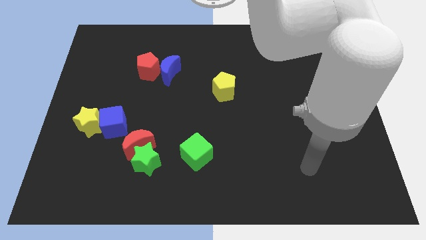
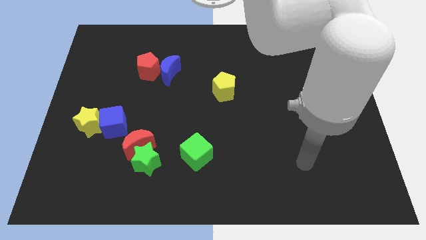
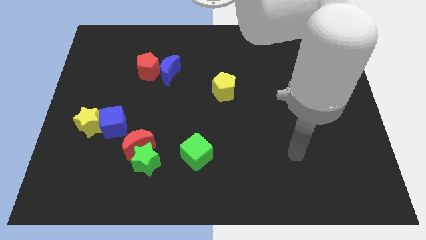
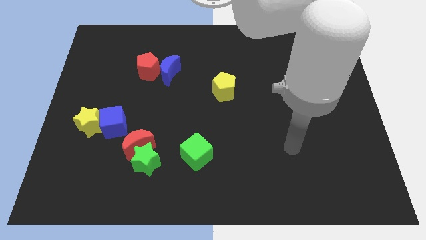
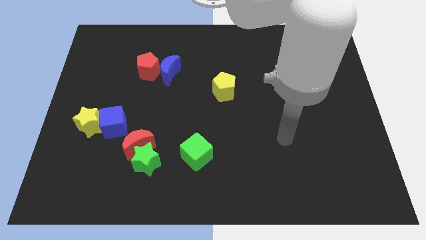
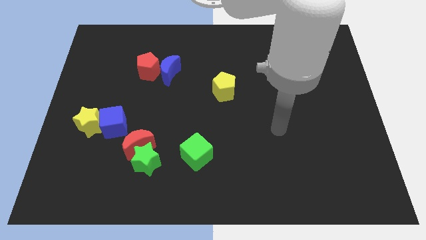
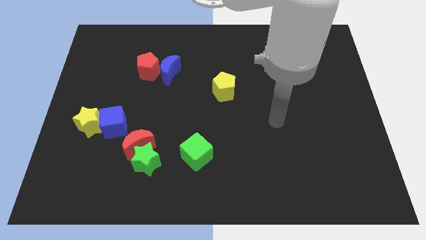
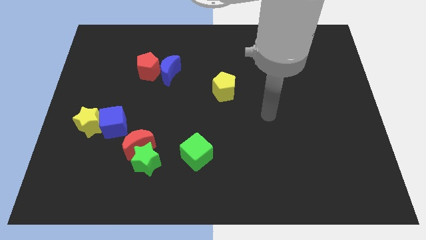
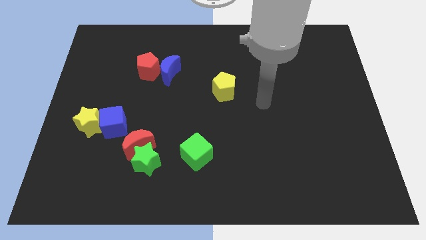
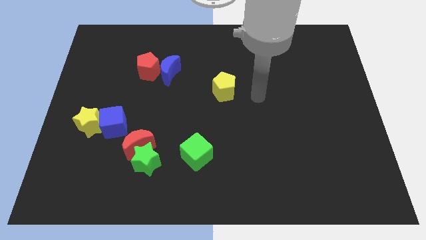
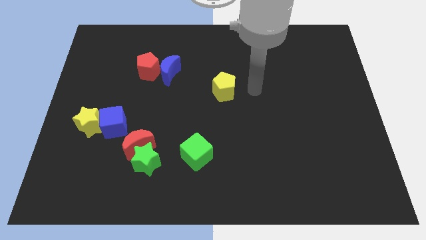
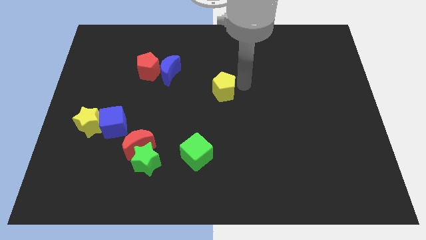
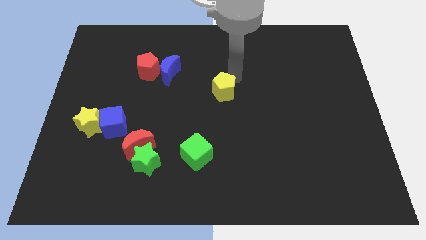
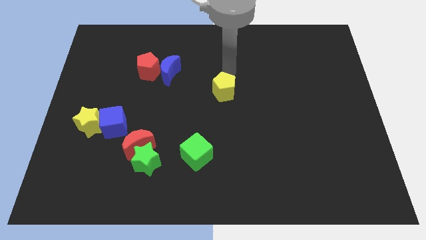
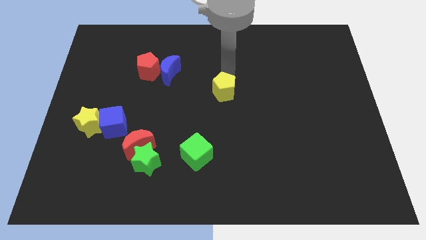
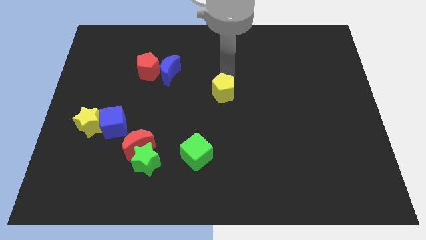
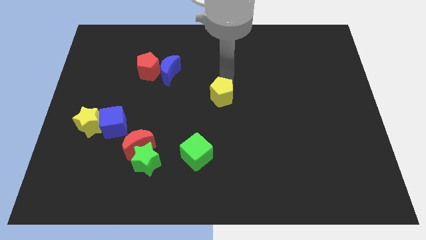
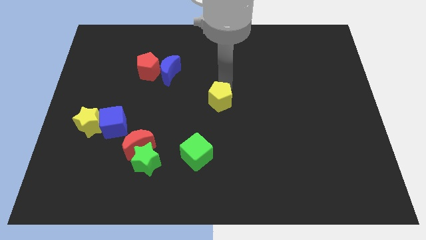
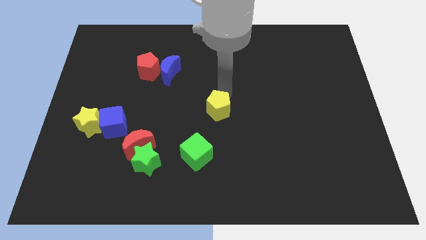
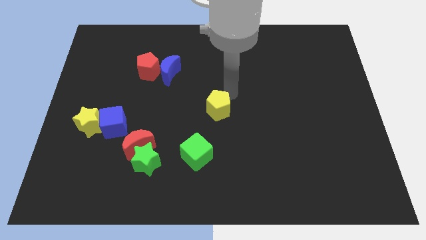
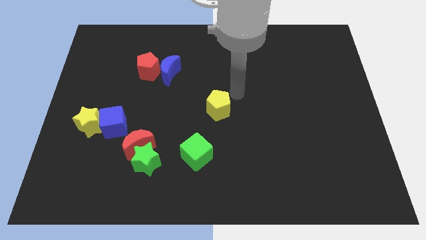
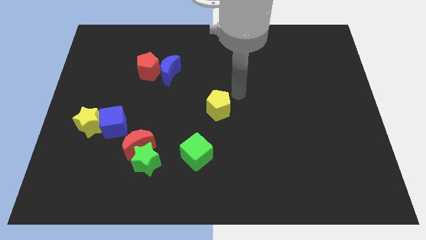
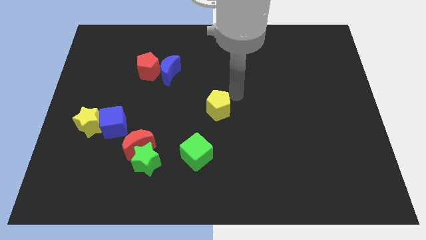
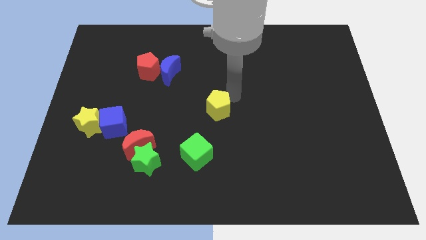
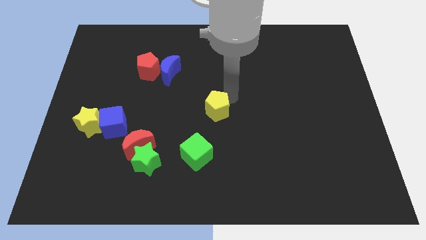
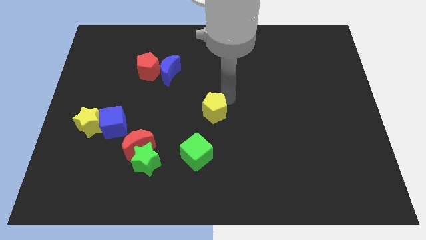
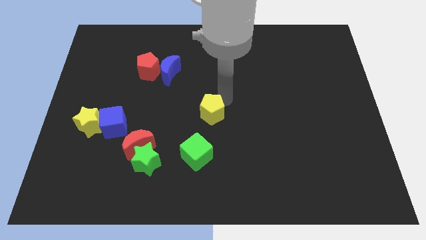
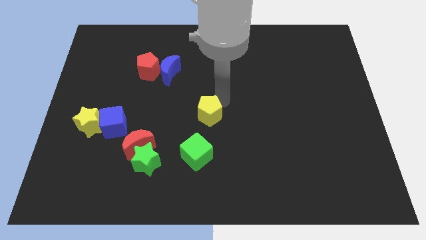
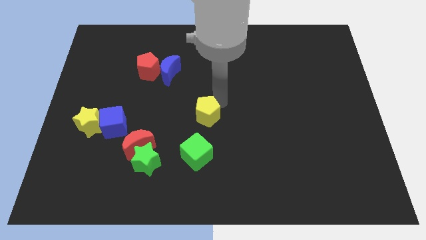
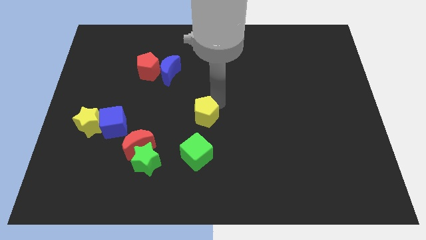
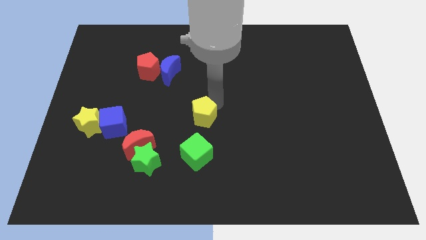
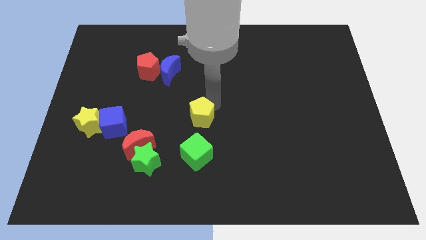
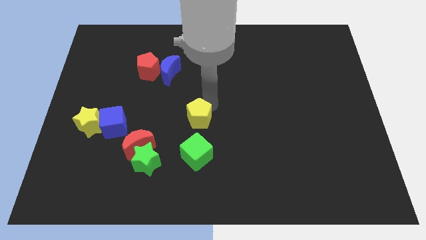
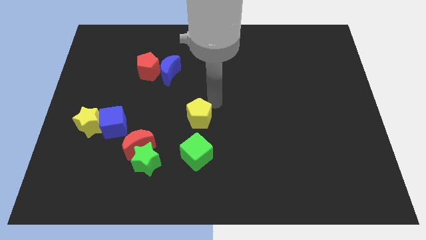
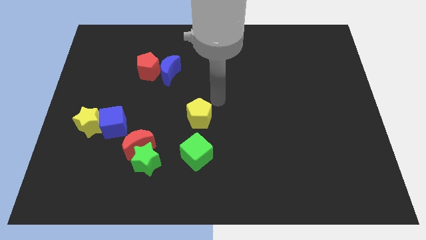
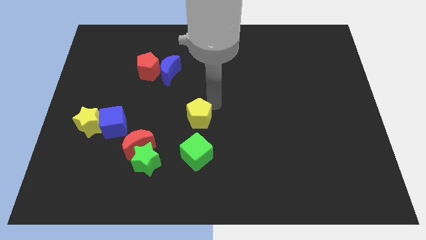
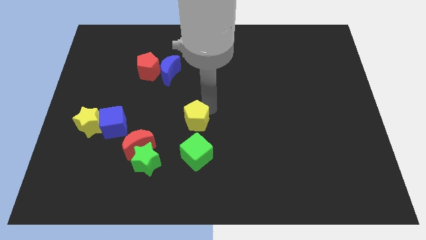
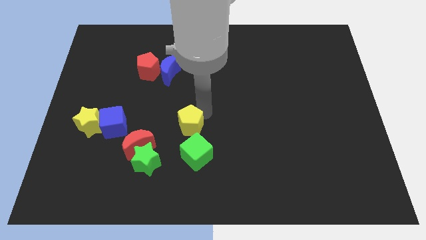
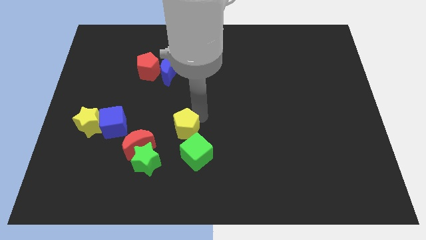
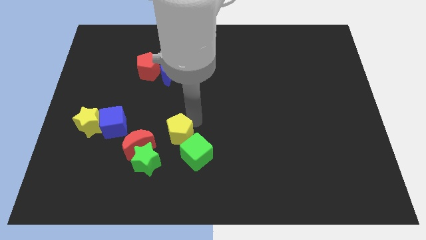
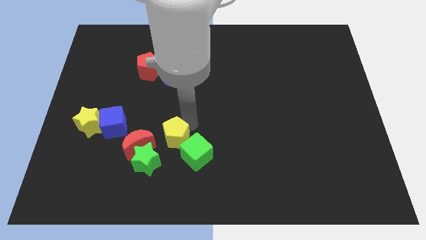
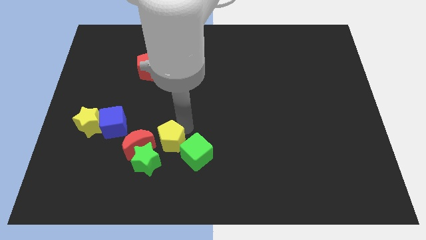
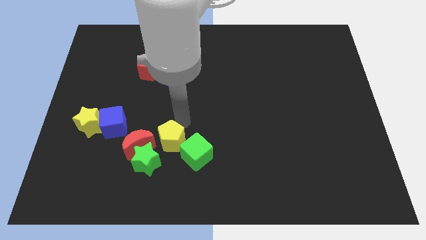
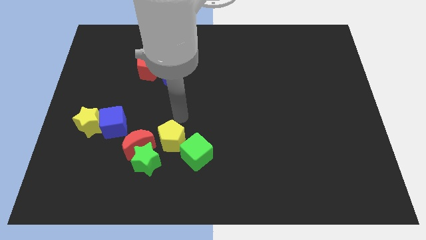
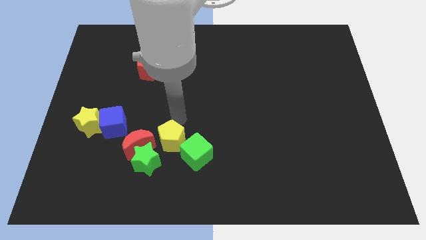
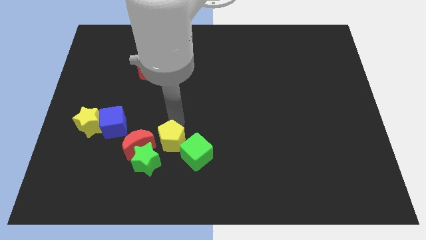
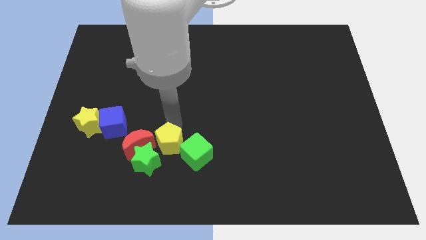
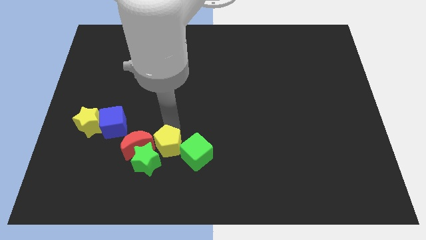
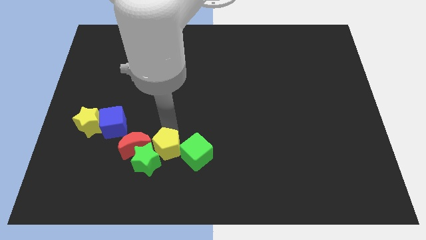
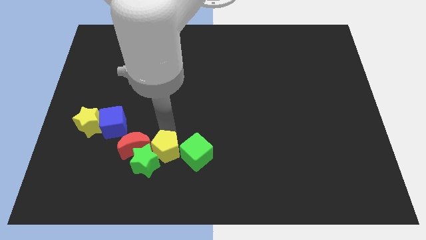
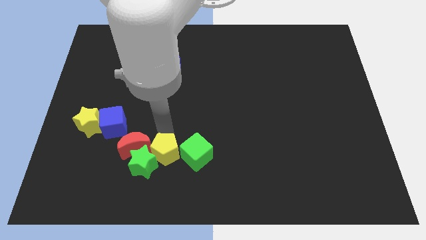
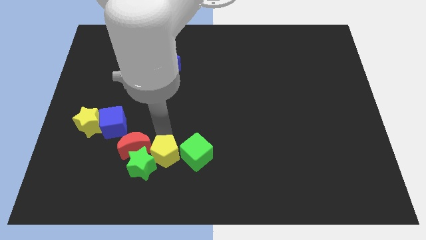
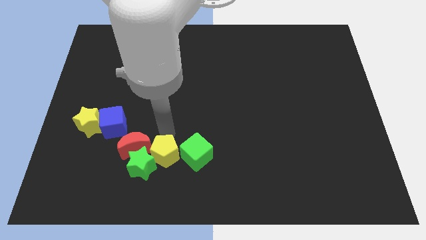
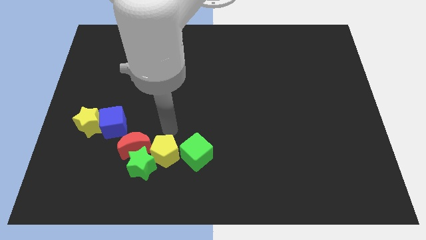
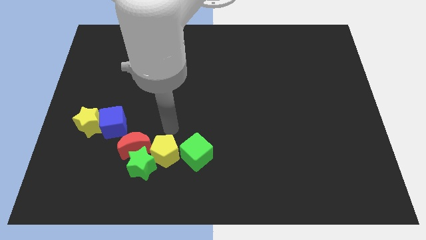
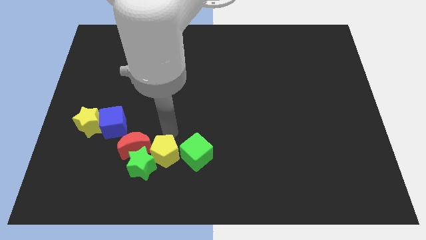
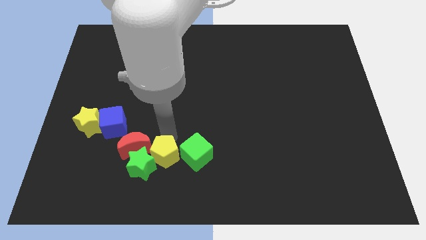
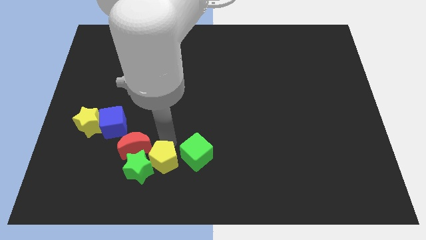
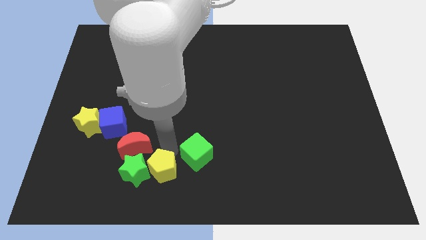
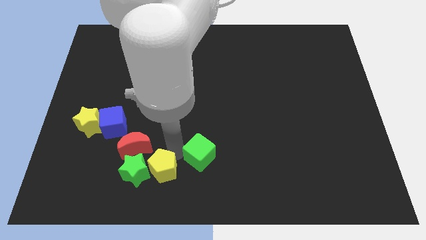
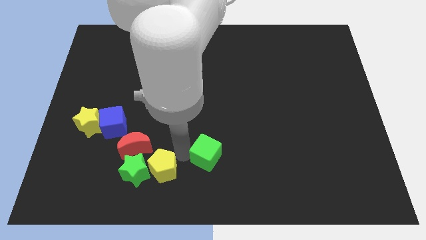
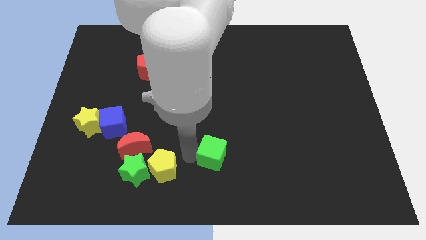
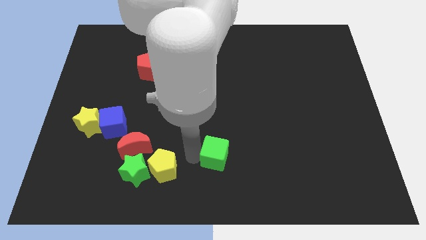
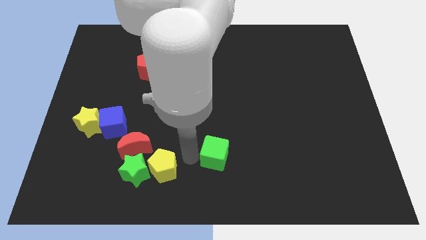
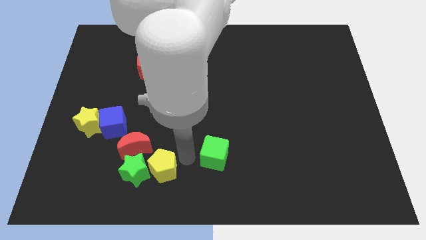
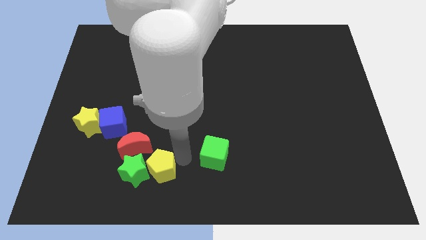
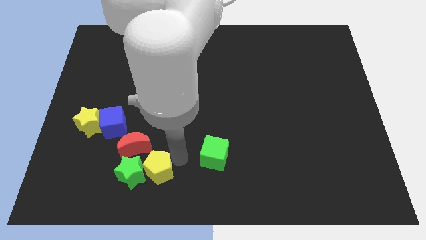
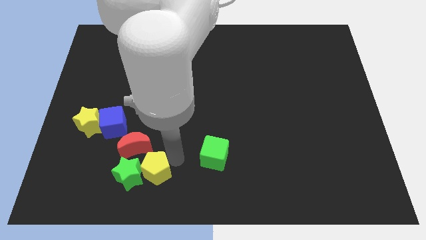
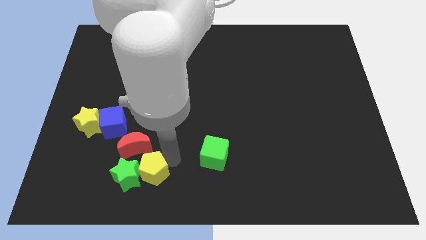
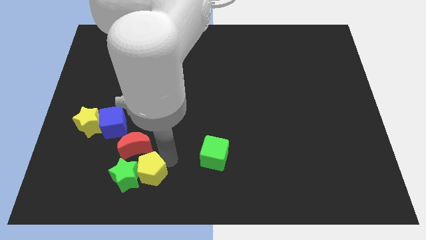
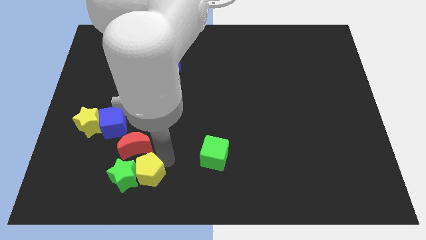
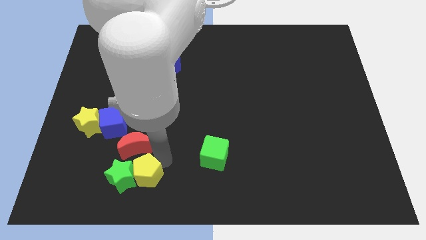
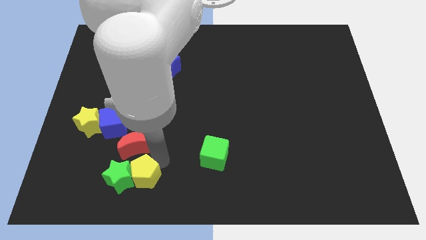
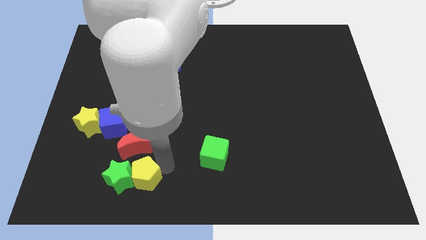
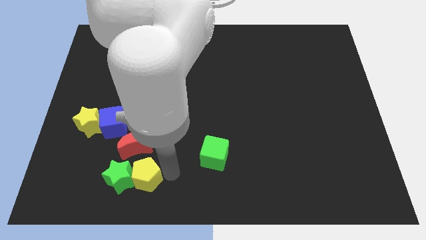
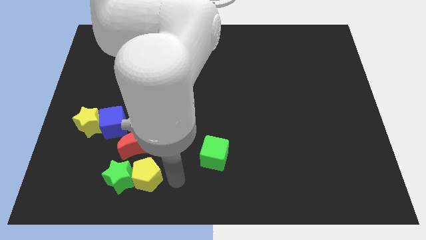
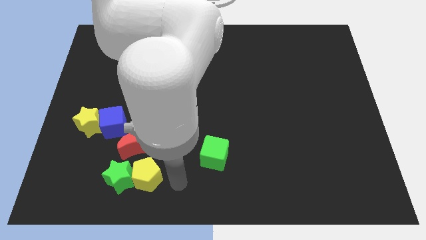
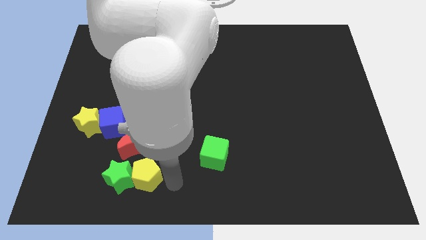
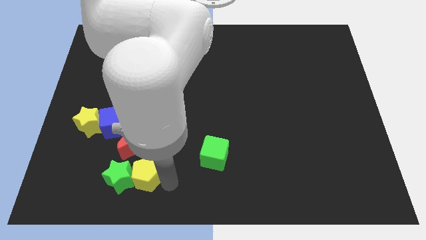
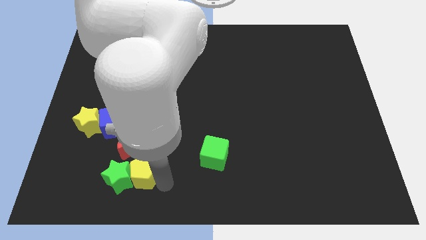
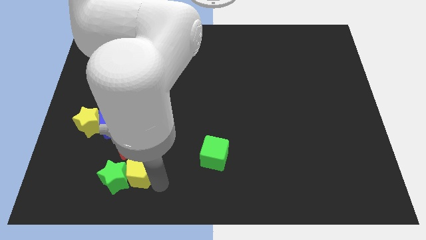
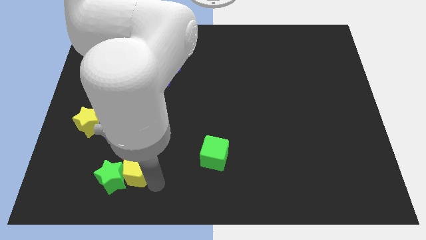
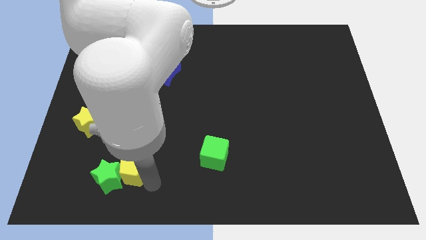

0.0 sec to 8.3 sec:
slide the yellow pentagon diagonally down and to the left of the red moon
